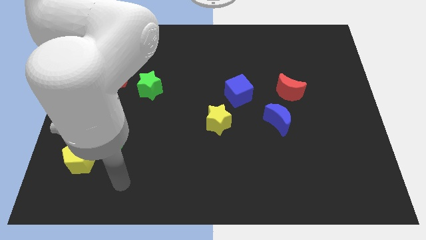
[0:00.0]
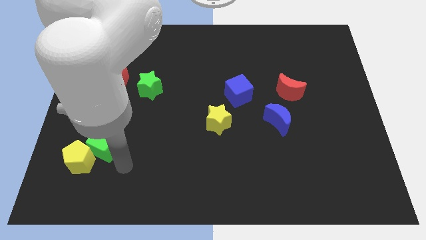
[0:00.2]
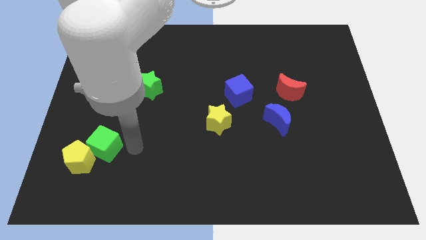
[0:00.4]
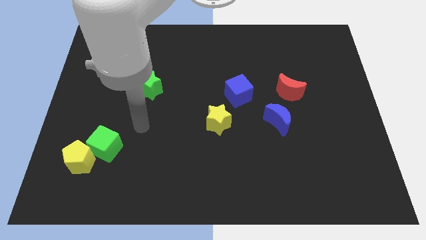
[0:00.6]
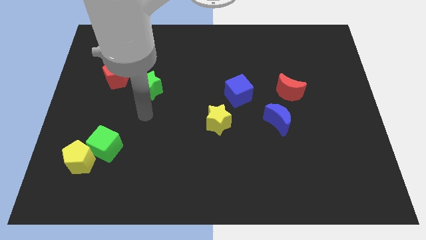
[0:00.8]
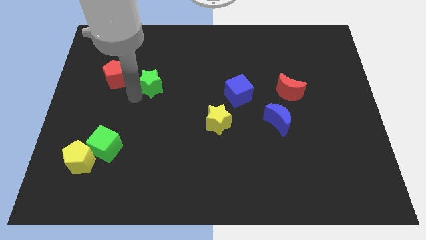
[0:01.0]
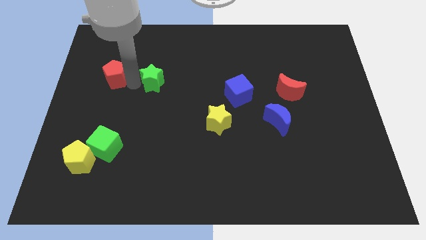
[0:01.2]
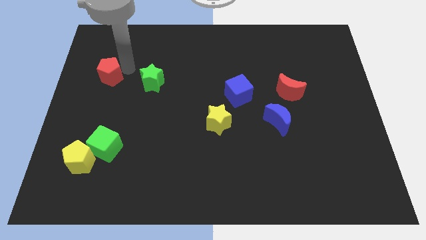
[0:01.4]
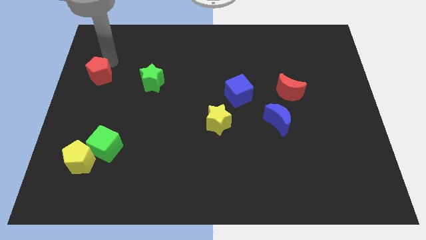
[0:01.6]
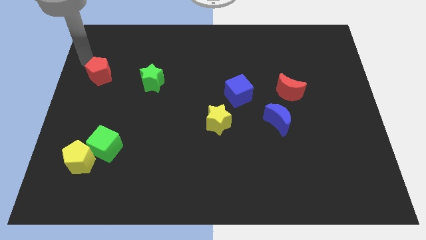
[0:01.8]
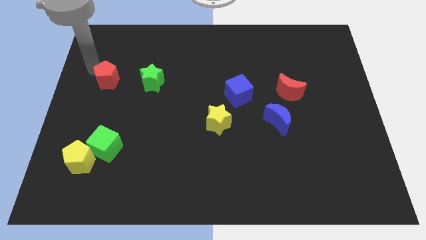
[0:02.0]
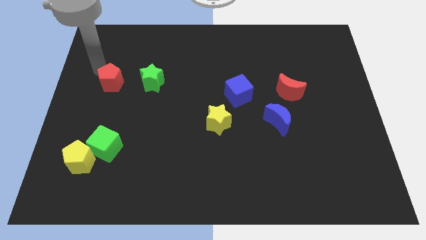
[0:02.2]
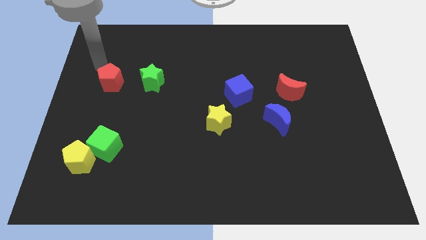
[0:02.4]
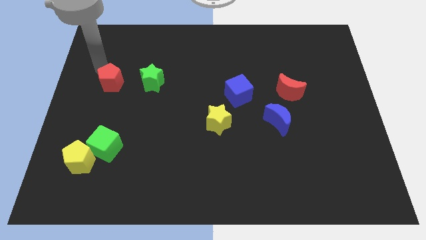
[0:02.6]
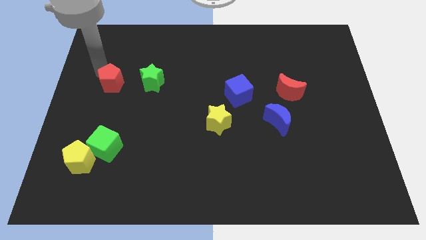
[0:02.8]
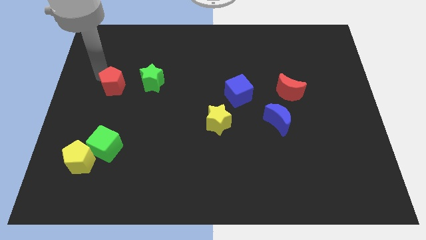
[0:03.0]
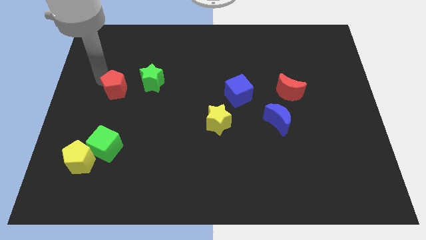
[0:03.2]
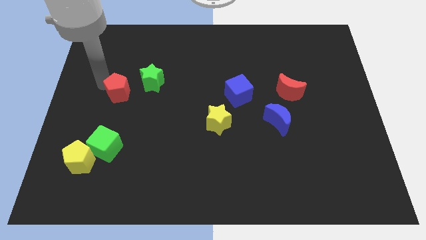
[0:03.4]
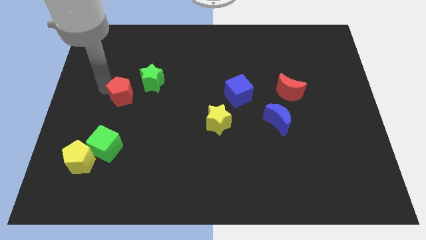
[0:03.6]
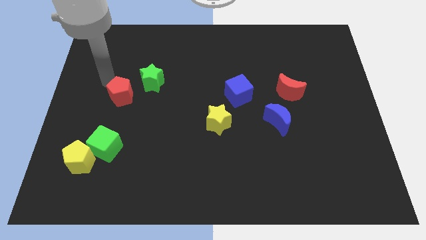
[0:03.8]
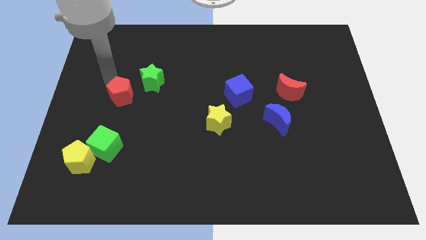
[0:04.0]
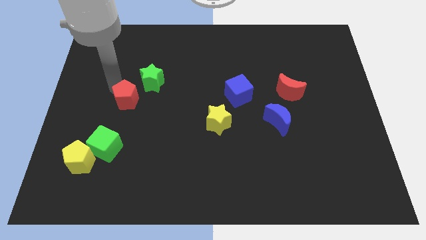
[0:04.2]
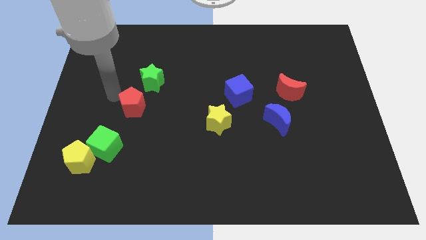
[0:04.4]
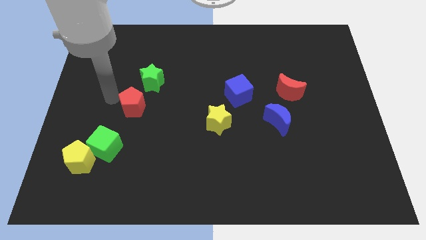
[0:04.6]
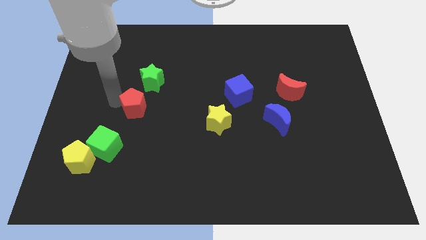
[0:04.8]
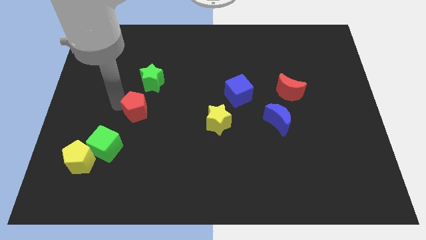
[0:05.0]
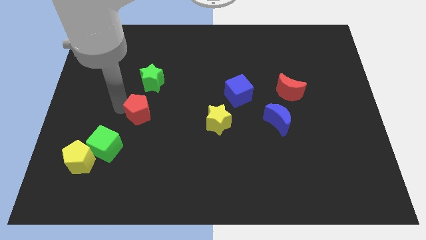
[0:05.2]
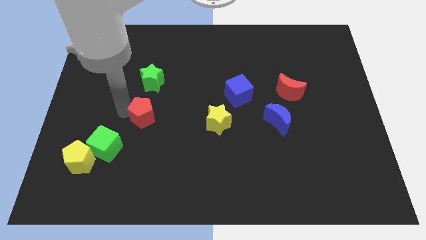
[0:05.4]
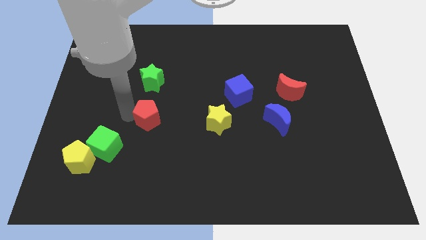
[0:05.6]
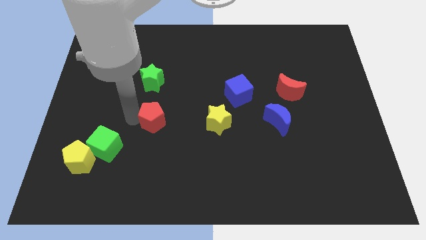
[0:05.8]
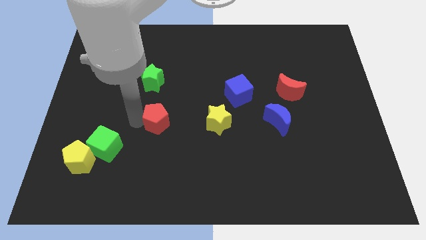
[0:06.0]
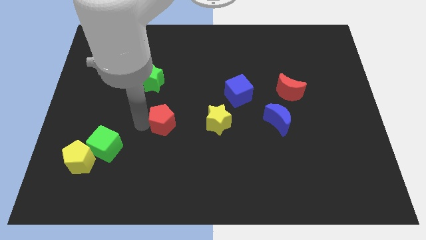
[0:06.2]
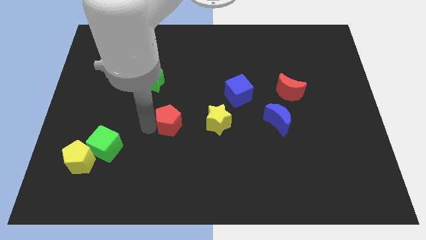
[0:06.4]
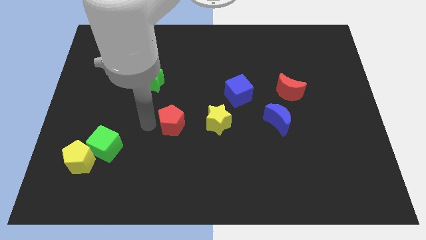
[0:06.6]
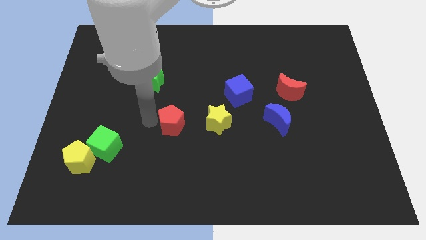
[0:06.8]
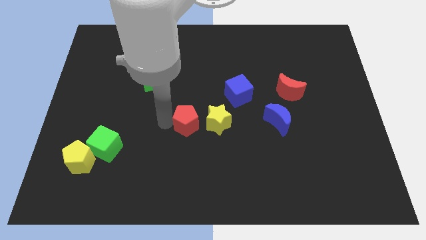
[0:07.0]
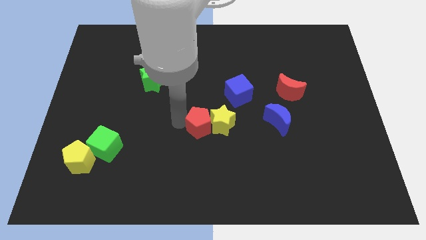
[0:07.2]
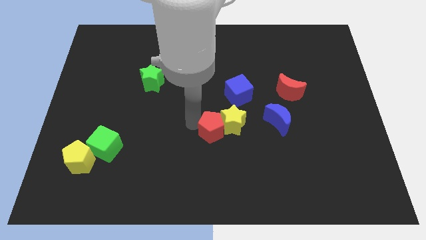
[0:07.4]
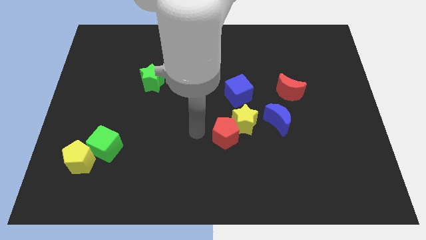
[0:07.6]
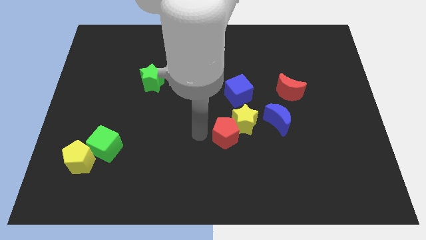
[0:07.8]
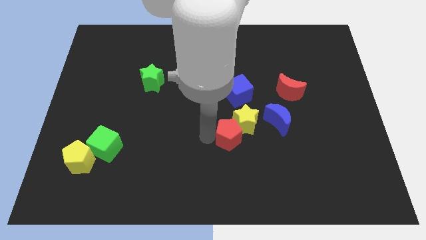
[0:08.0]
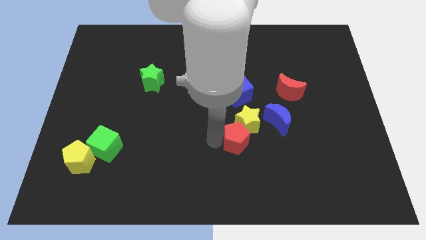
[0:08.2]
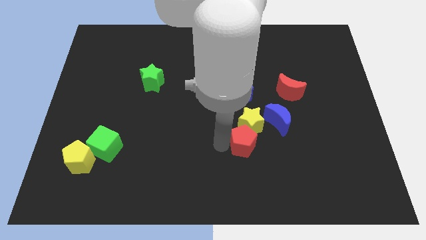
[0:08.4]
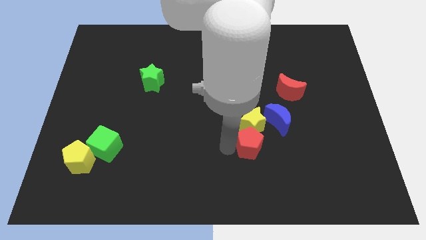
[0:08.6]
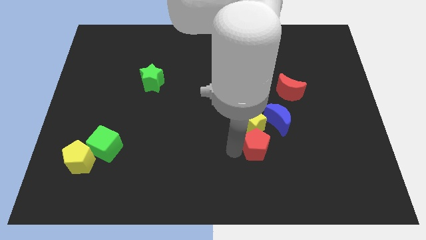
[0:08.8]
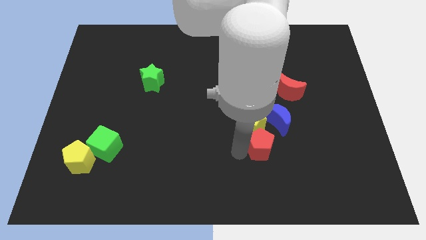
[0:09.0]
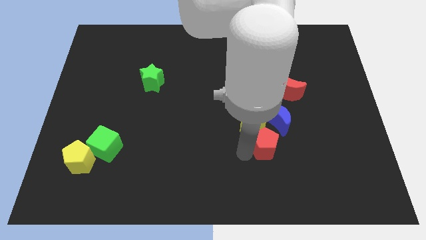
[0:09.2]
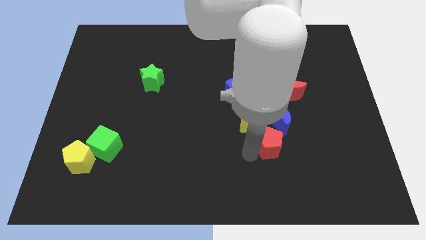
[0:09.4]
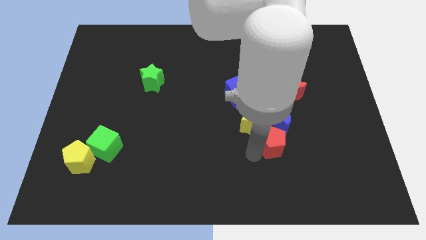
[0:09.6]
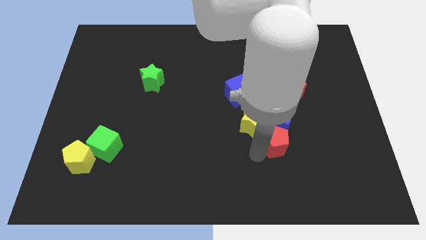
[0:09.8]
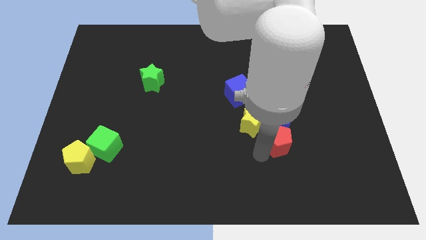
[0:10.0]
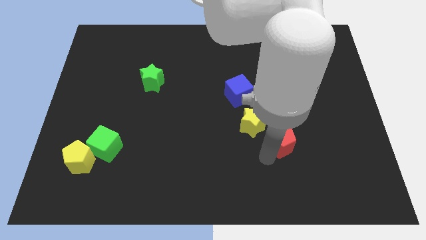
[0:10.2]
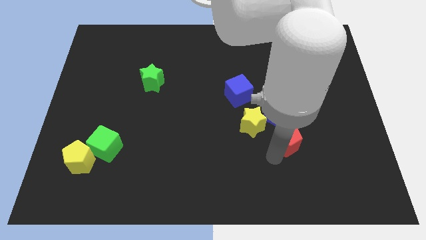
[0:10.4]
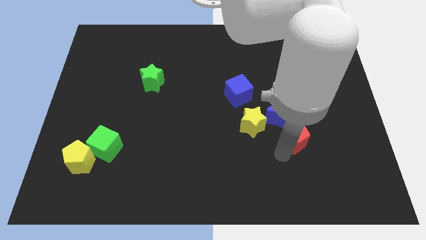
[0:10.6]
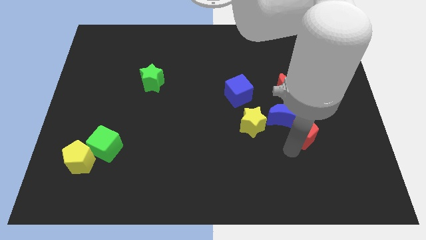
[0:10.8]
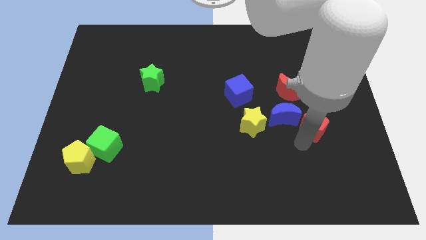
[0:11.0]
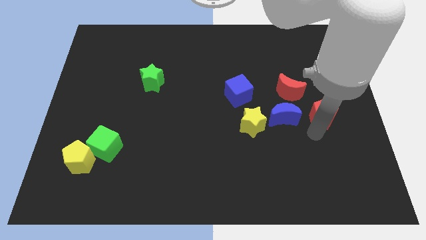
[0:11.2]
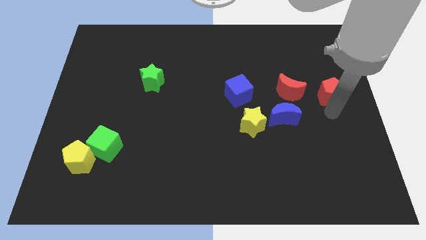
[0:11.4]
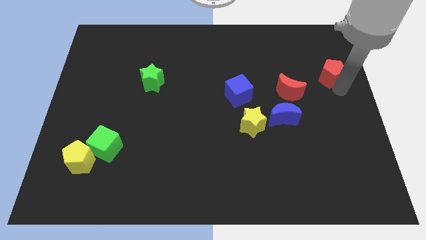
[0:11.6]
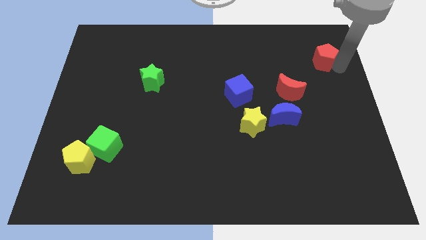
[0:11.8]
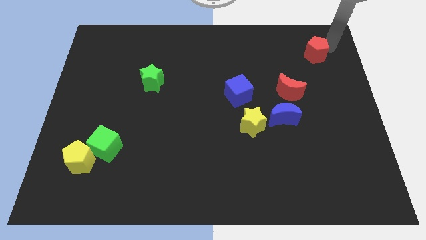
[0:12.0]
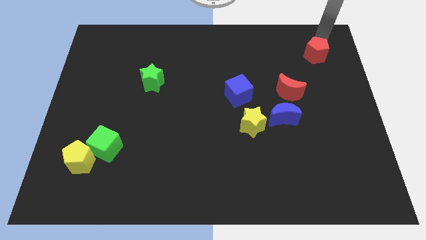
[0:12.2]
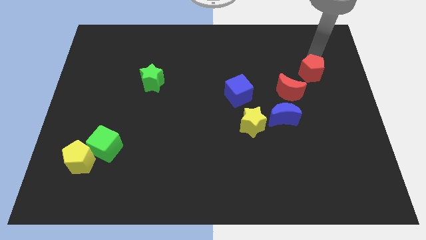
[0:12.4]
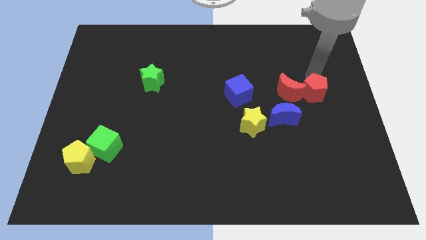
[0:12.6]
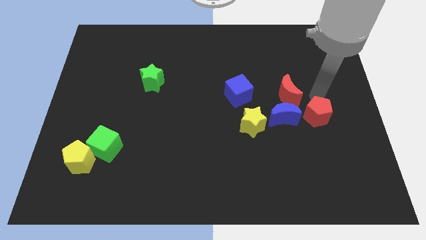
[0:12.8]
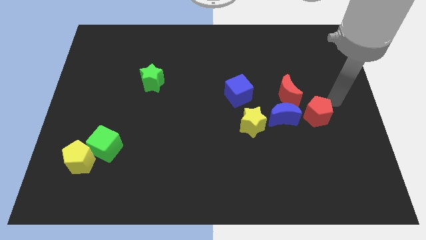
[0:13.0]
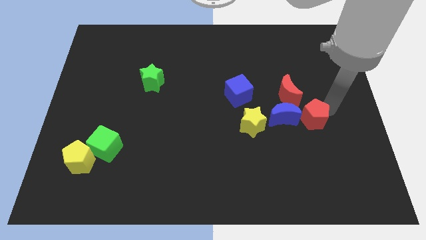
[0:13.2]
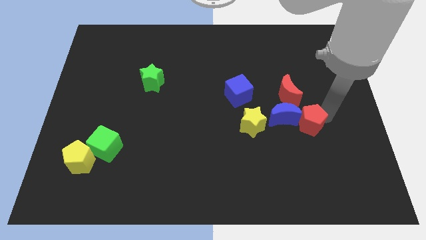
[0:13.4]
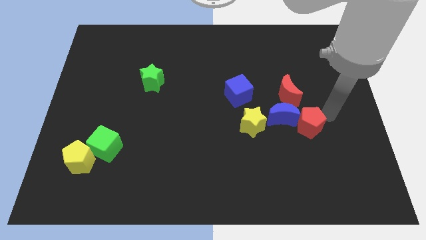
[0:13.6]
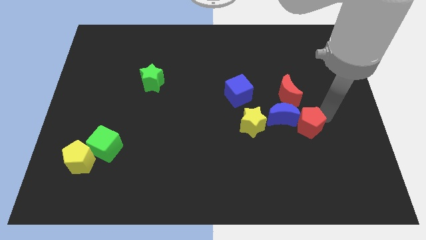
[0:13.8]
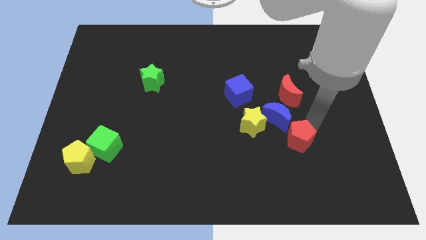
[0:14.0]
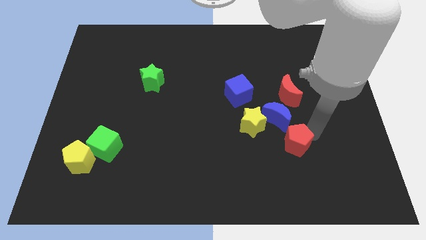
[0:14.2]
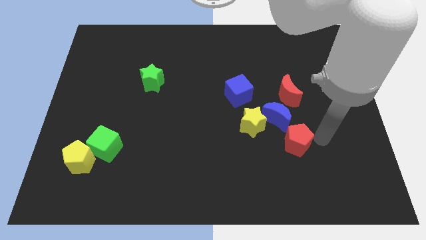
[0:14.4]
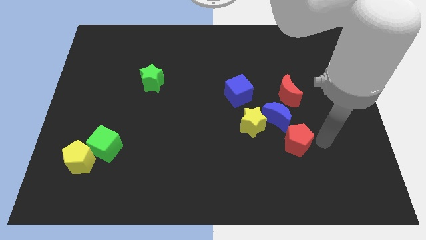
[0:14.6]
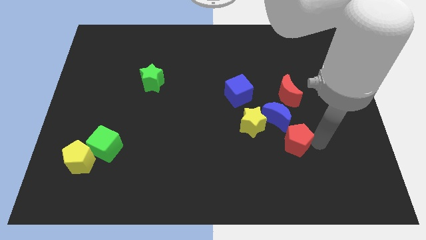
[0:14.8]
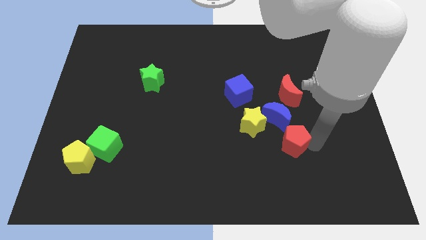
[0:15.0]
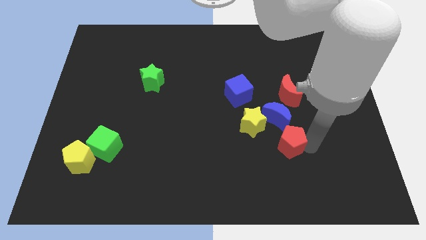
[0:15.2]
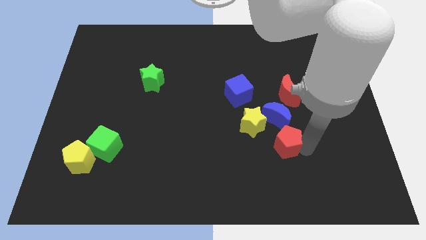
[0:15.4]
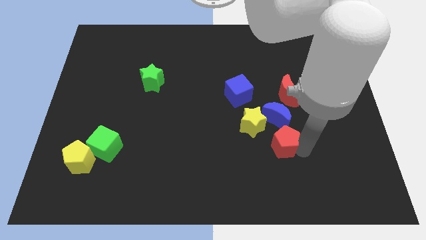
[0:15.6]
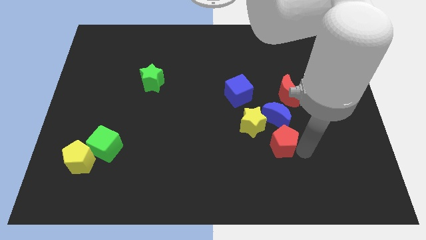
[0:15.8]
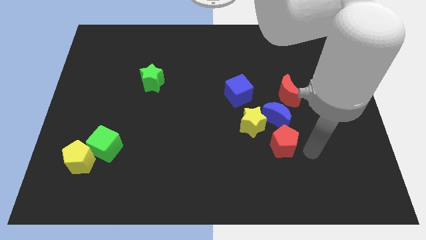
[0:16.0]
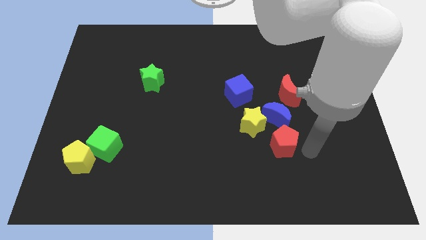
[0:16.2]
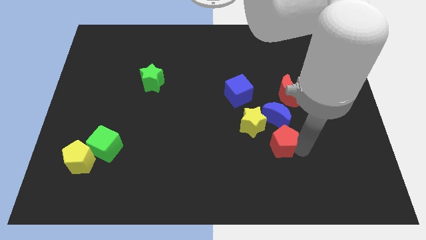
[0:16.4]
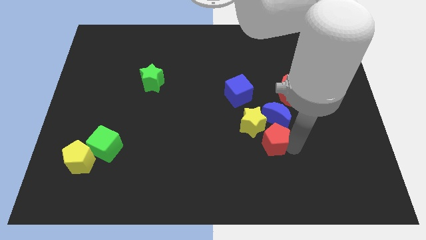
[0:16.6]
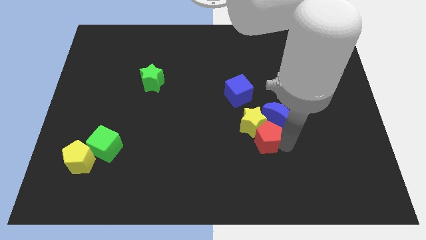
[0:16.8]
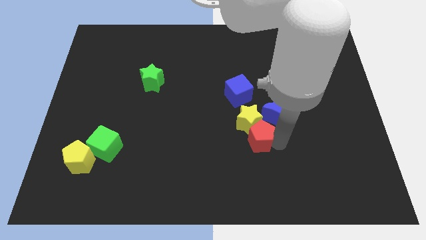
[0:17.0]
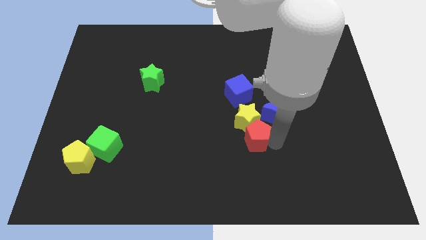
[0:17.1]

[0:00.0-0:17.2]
push the red pentagon to the bottom right of the yellow star
